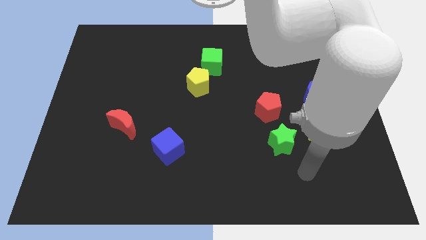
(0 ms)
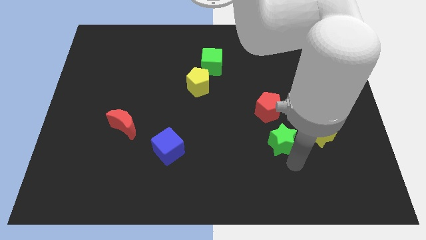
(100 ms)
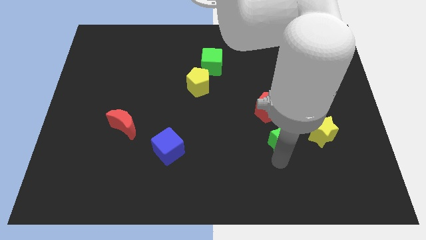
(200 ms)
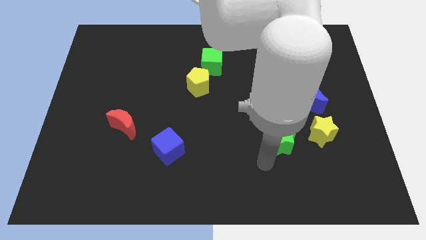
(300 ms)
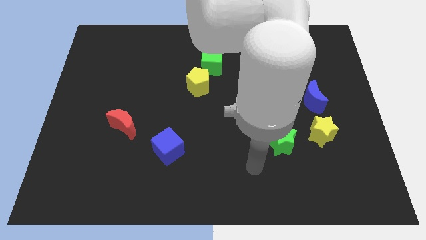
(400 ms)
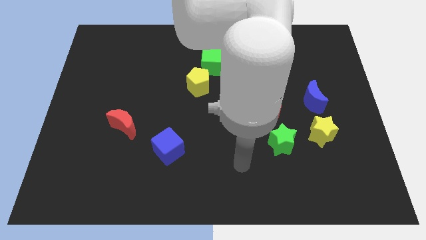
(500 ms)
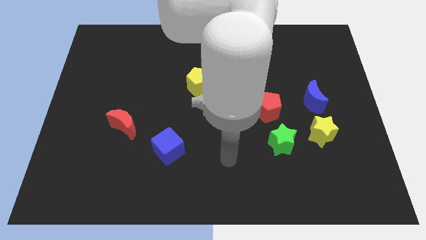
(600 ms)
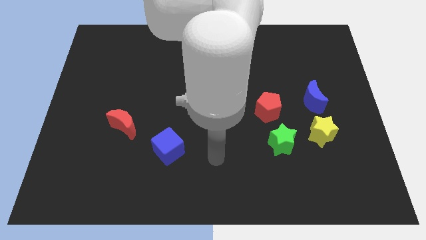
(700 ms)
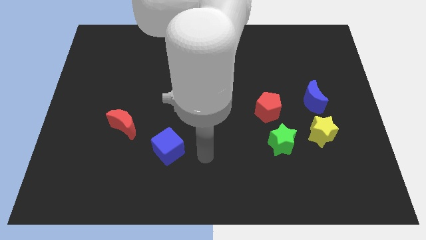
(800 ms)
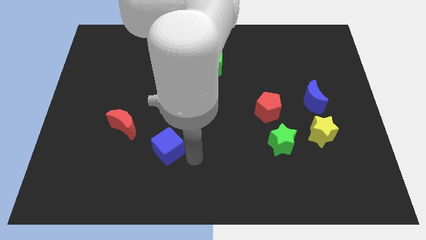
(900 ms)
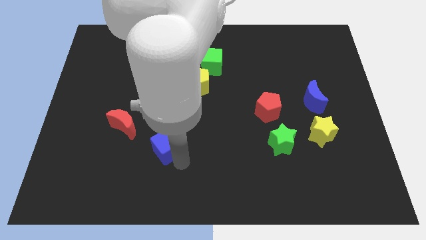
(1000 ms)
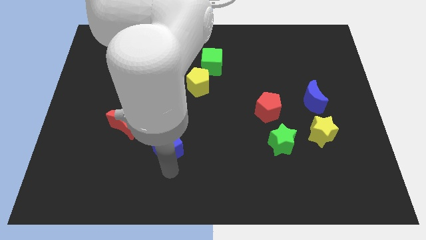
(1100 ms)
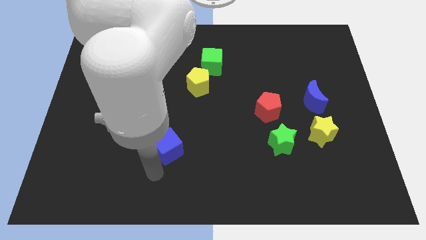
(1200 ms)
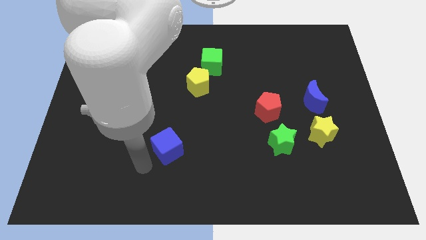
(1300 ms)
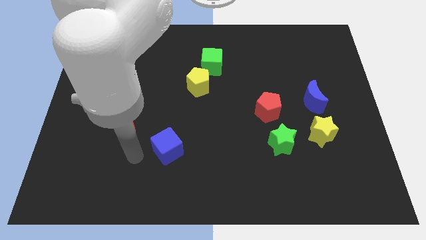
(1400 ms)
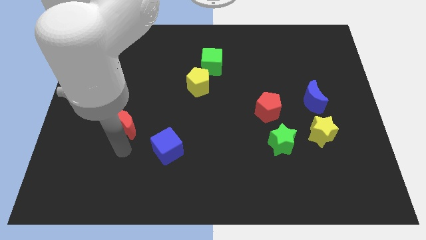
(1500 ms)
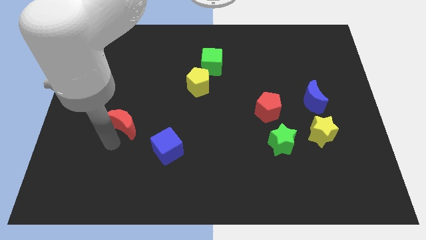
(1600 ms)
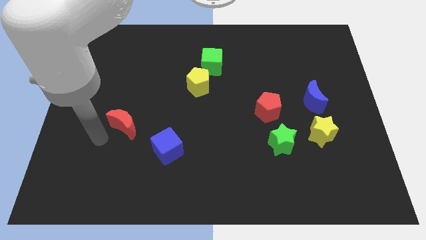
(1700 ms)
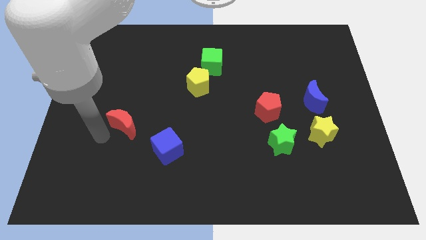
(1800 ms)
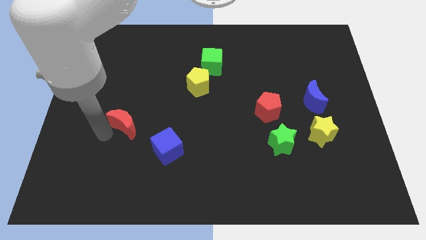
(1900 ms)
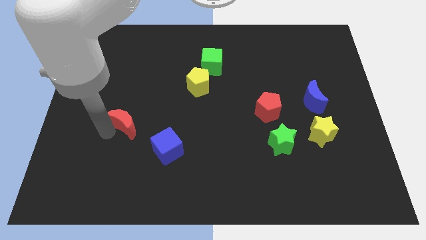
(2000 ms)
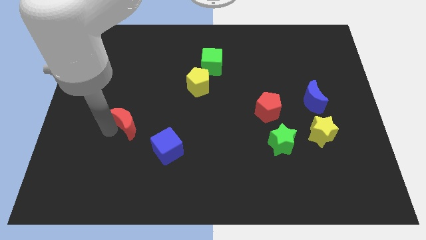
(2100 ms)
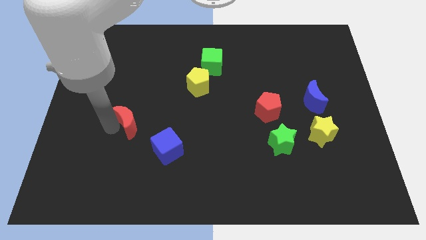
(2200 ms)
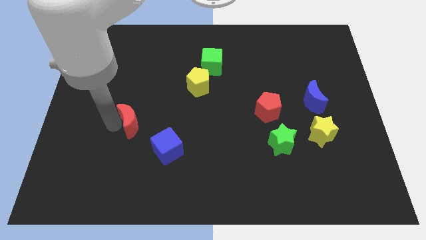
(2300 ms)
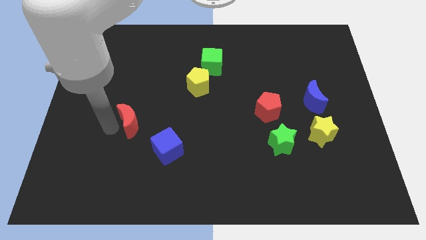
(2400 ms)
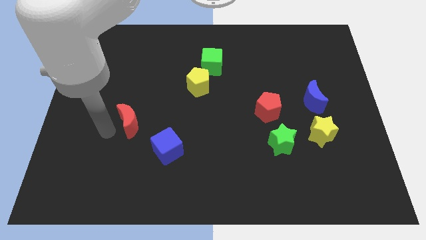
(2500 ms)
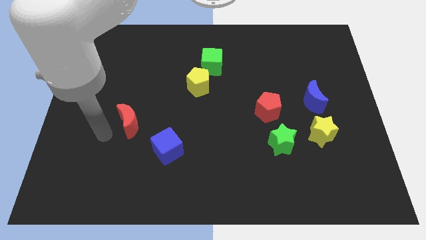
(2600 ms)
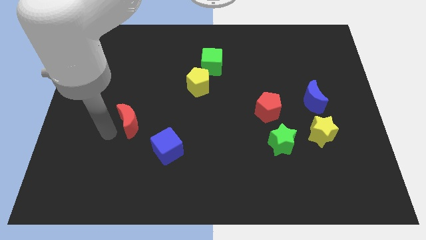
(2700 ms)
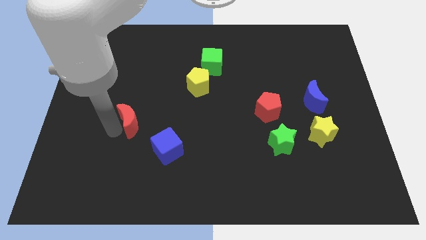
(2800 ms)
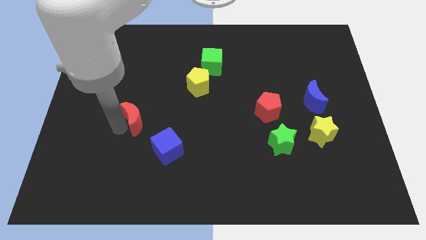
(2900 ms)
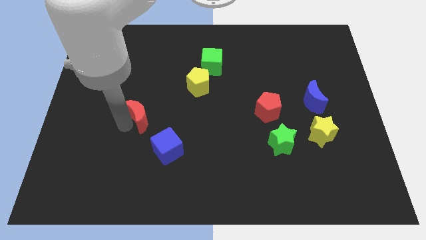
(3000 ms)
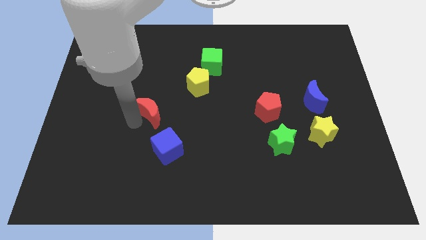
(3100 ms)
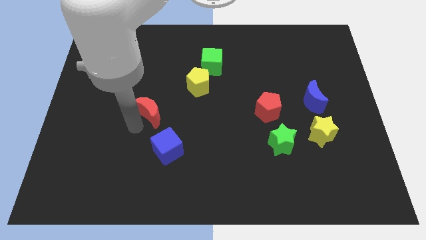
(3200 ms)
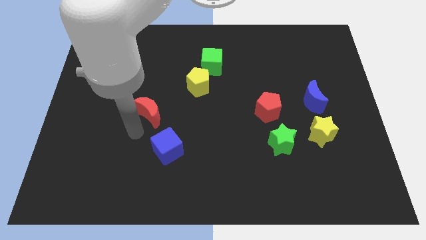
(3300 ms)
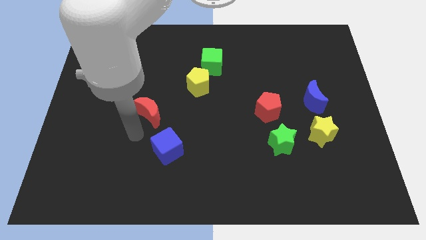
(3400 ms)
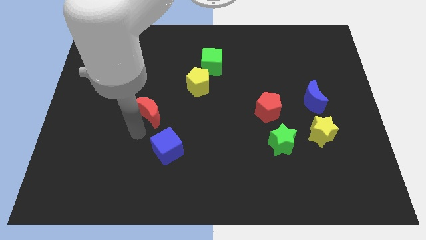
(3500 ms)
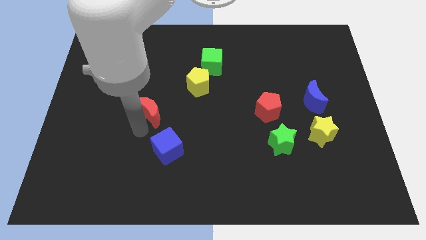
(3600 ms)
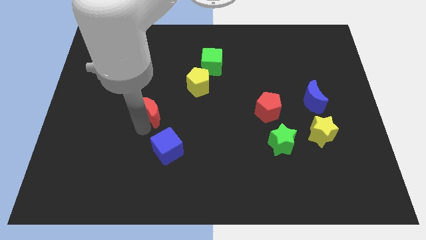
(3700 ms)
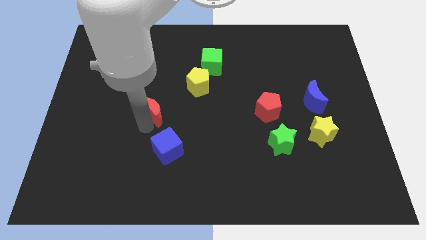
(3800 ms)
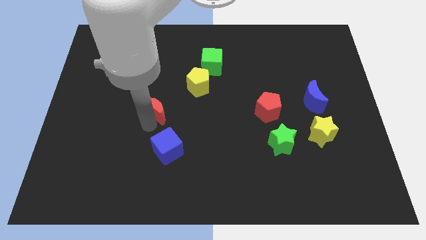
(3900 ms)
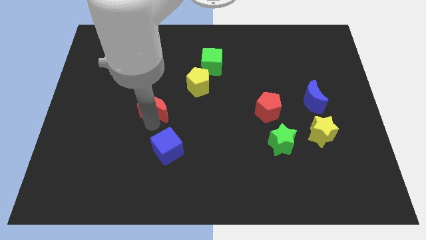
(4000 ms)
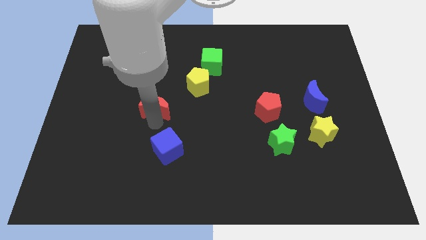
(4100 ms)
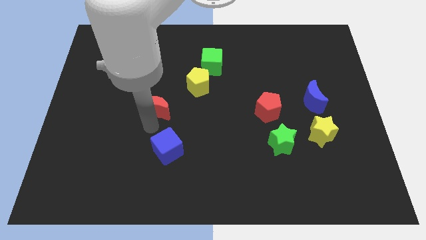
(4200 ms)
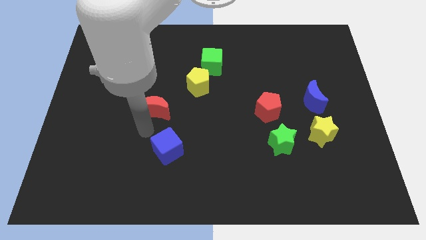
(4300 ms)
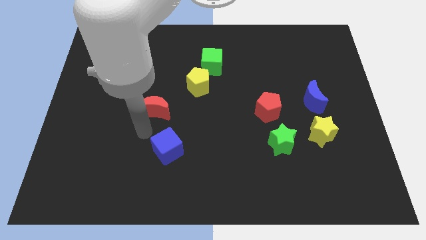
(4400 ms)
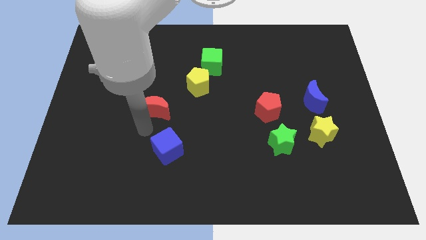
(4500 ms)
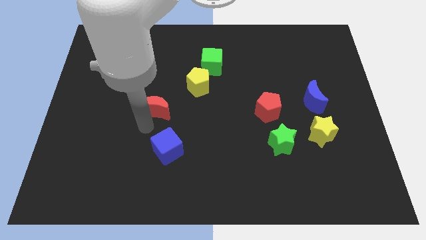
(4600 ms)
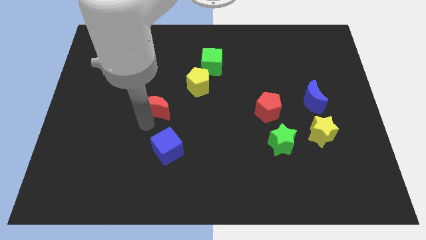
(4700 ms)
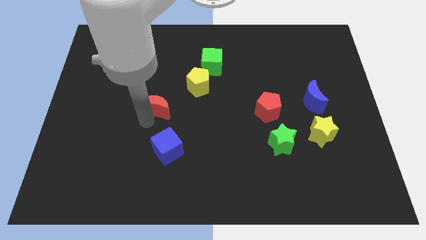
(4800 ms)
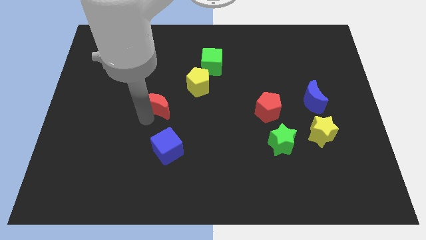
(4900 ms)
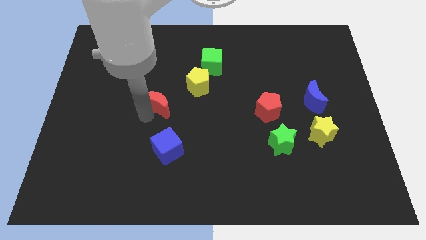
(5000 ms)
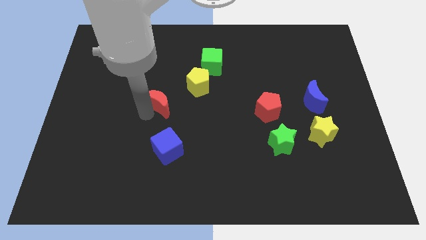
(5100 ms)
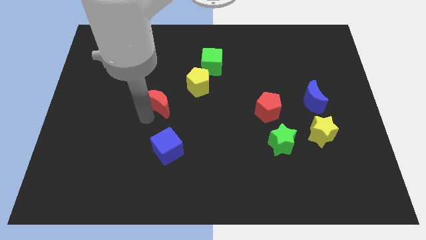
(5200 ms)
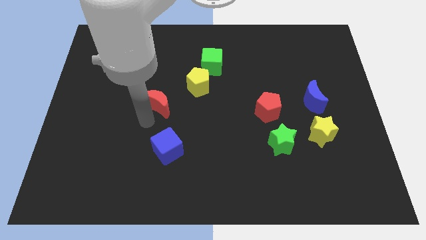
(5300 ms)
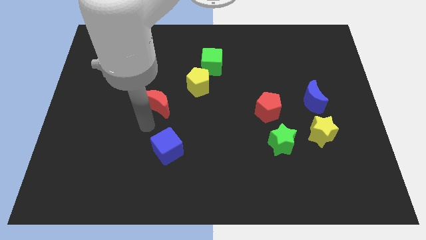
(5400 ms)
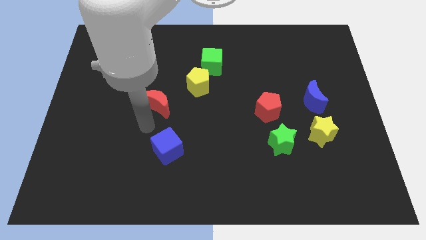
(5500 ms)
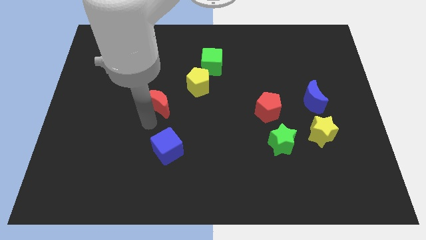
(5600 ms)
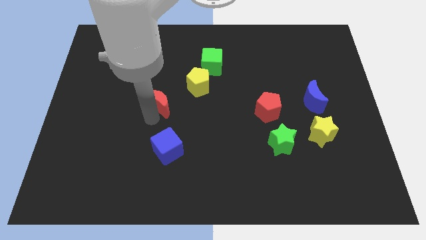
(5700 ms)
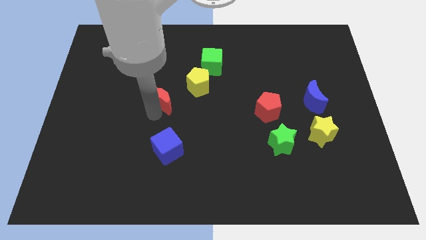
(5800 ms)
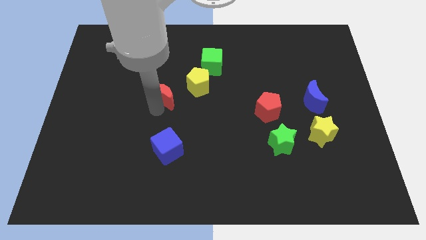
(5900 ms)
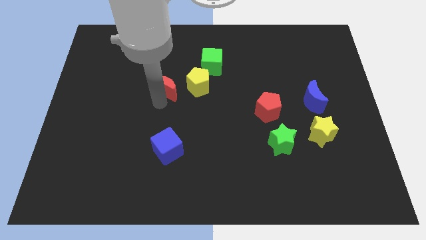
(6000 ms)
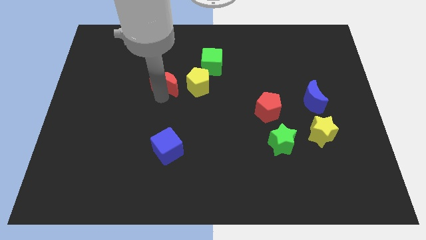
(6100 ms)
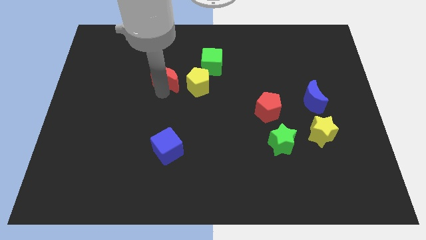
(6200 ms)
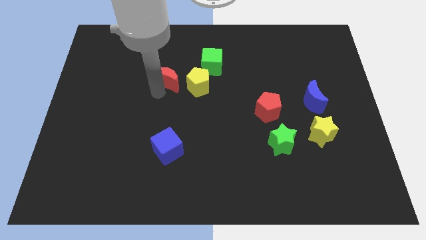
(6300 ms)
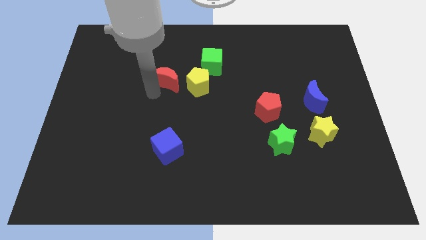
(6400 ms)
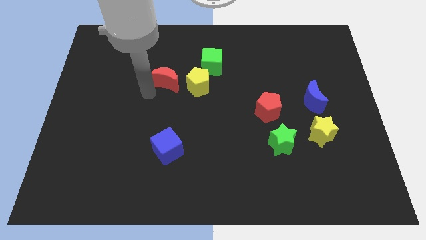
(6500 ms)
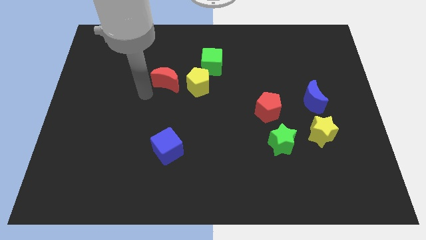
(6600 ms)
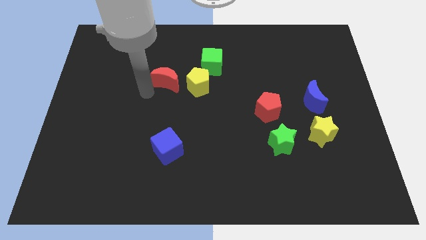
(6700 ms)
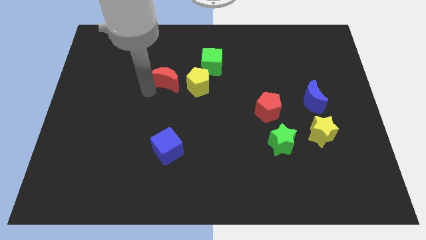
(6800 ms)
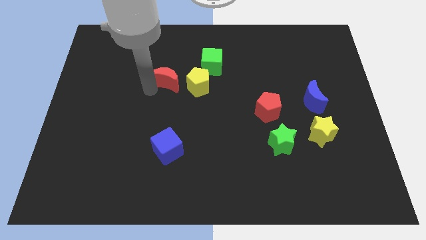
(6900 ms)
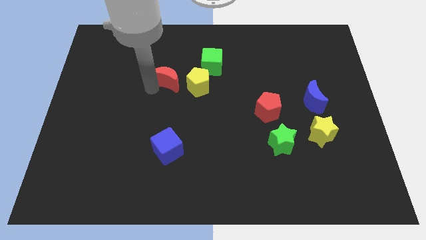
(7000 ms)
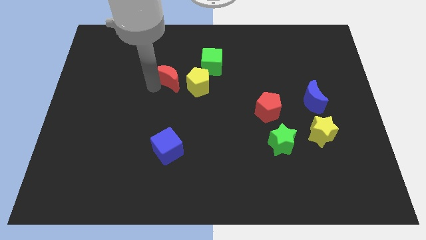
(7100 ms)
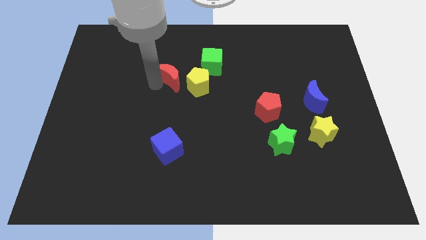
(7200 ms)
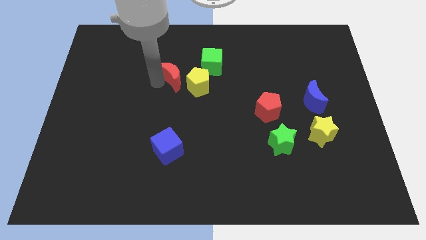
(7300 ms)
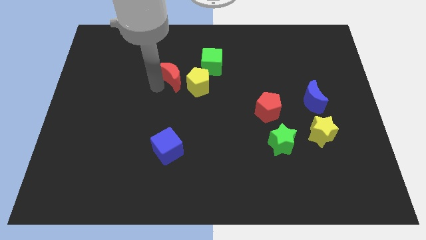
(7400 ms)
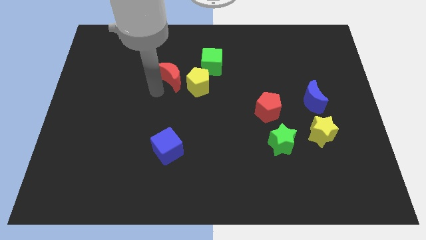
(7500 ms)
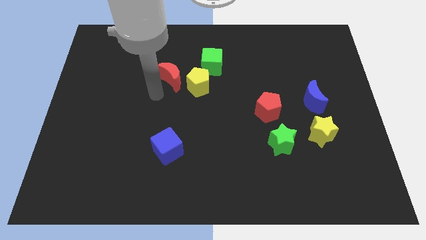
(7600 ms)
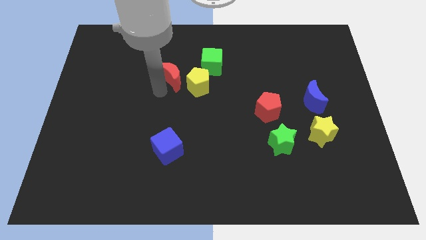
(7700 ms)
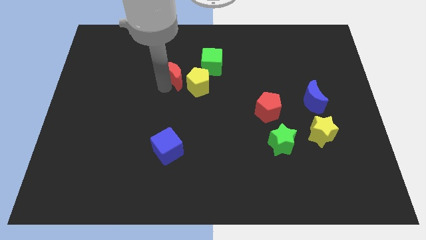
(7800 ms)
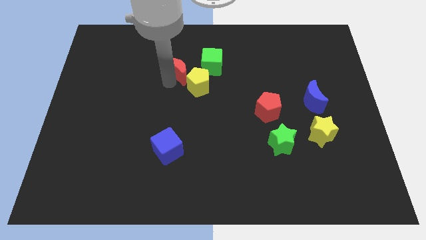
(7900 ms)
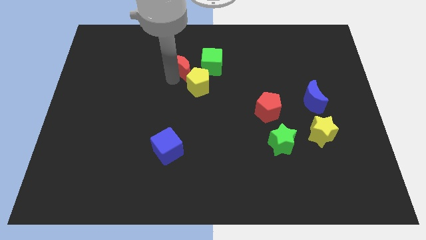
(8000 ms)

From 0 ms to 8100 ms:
push the red moon up and to the right
